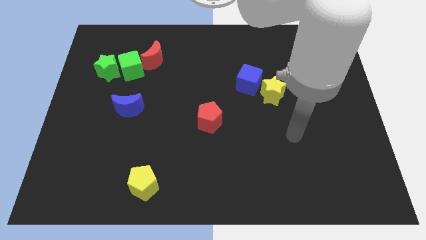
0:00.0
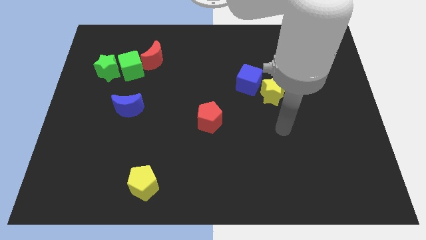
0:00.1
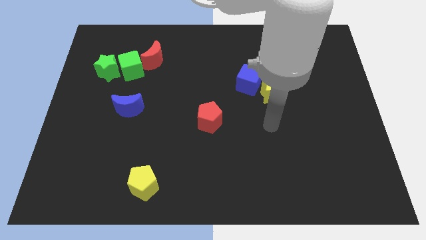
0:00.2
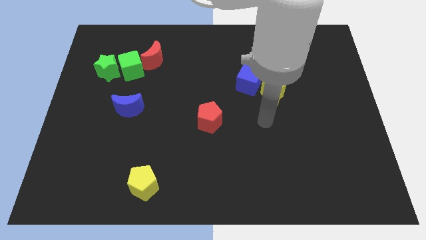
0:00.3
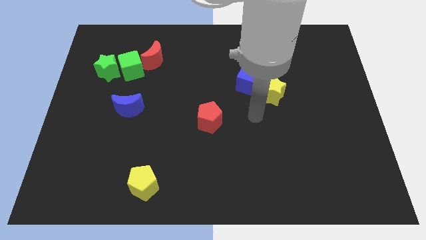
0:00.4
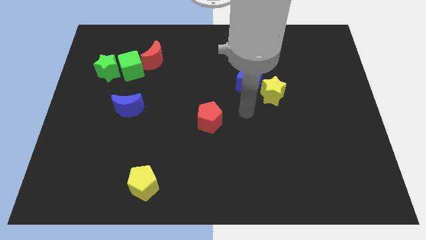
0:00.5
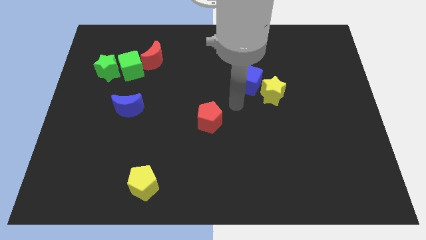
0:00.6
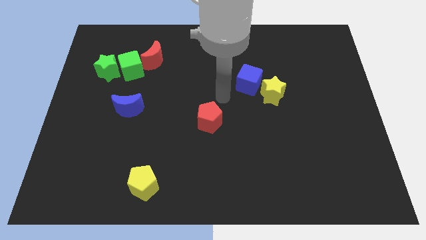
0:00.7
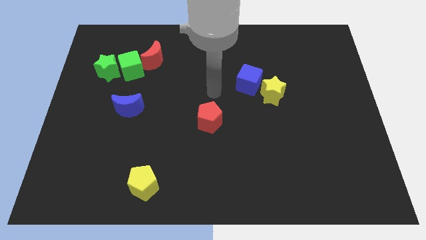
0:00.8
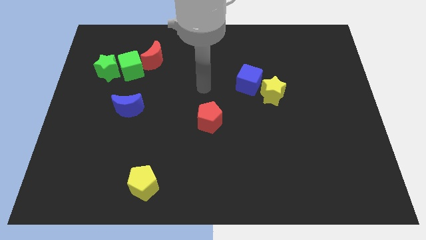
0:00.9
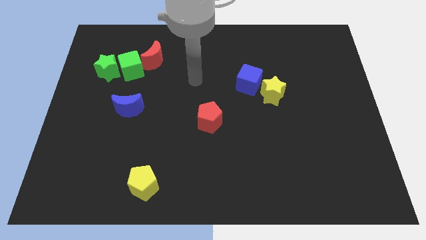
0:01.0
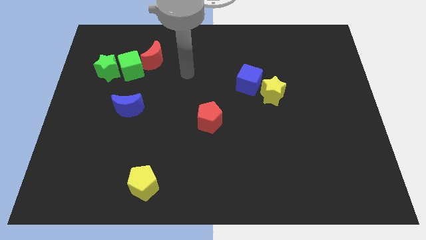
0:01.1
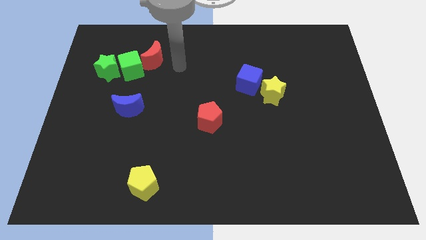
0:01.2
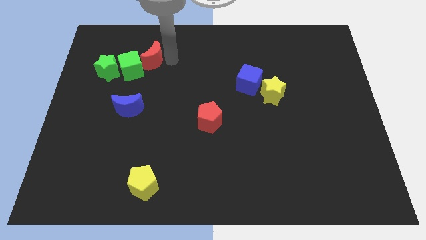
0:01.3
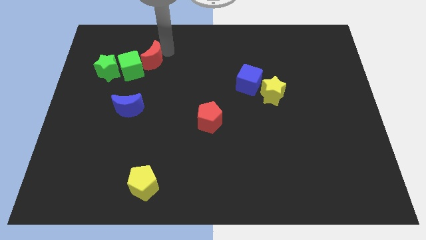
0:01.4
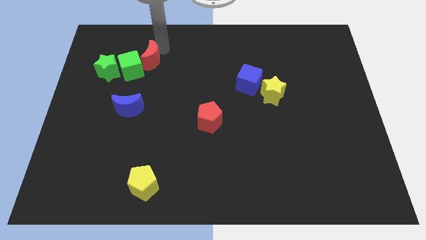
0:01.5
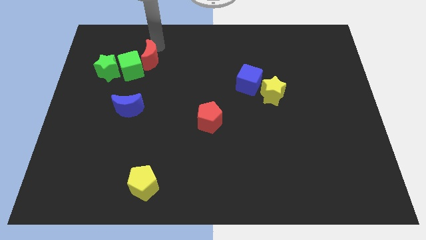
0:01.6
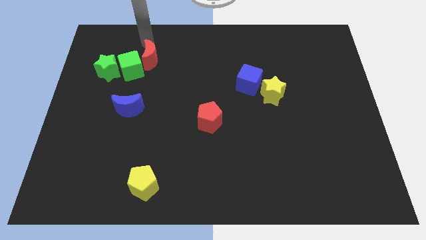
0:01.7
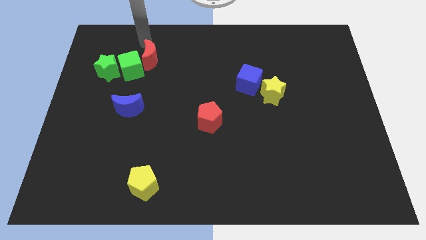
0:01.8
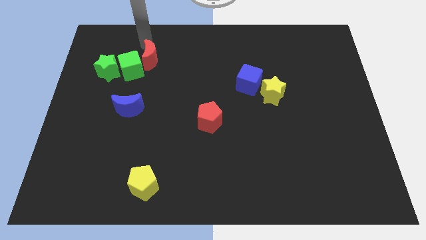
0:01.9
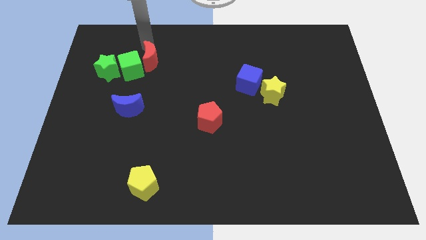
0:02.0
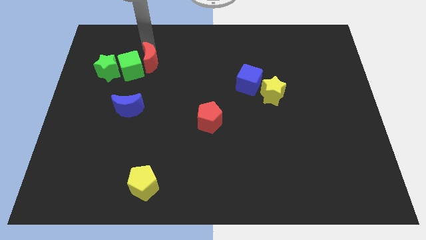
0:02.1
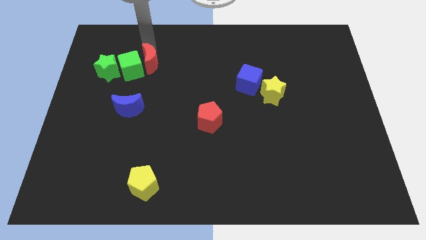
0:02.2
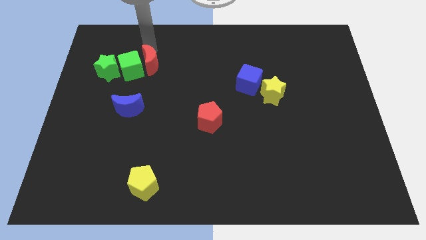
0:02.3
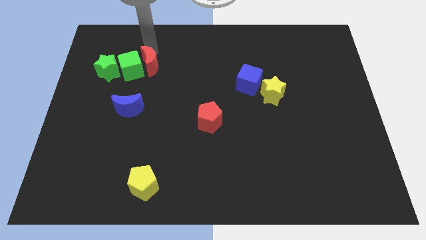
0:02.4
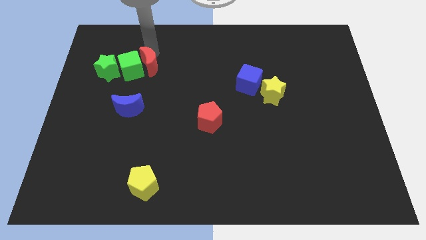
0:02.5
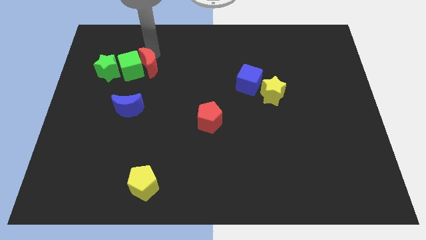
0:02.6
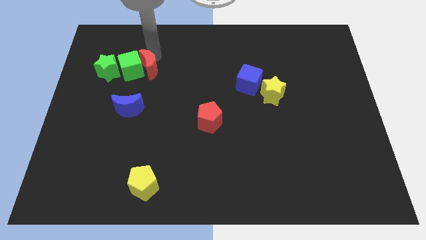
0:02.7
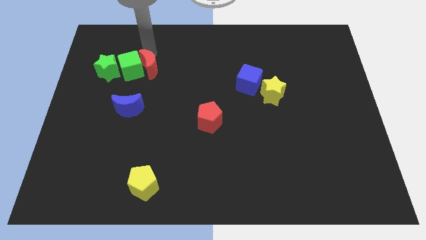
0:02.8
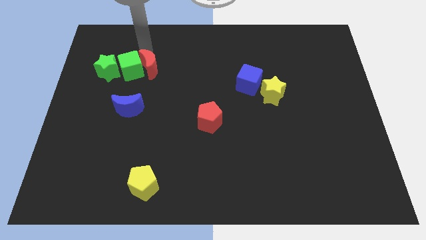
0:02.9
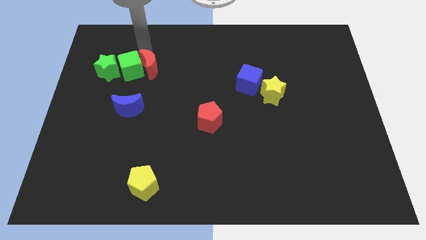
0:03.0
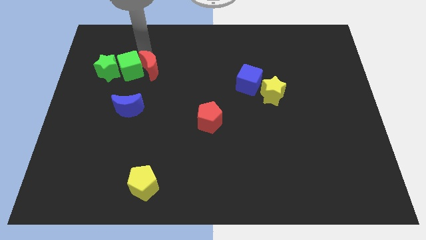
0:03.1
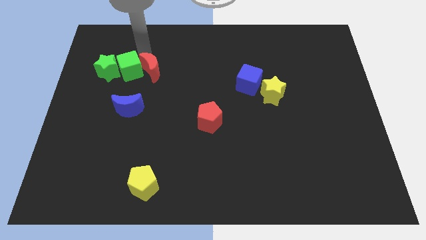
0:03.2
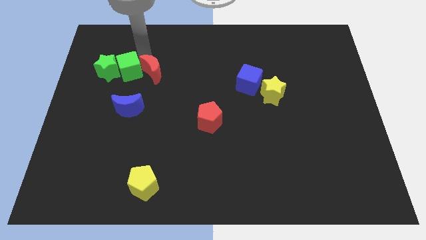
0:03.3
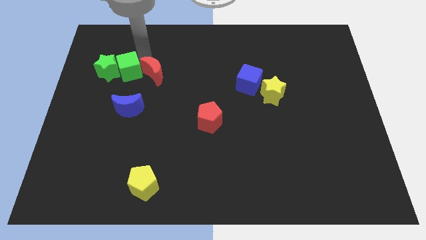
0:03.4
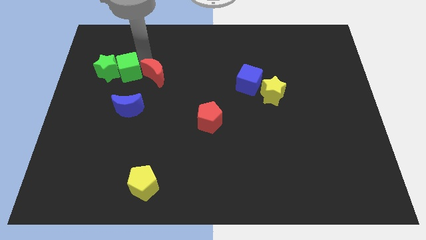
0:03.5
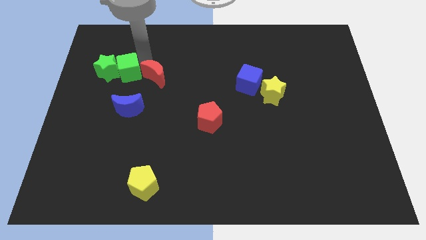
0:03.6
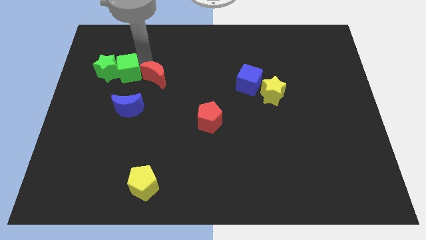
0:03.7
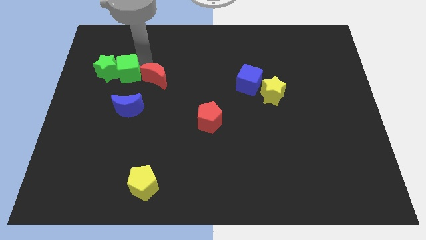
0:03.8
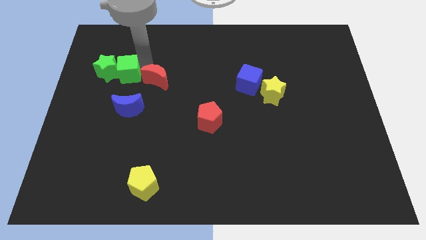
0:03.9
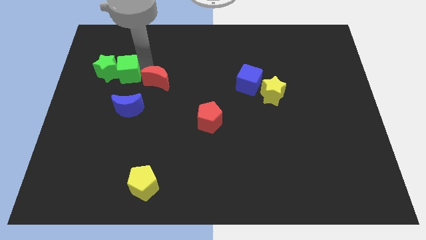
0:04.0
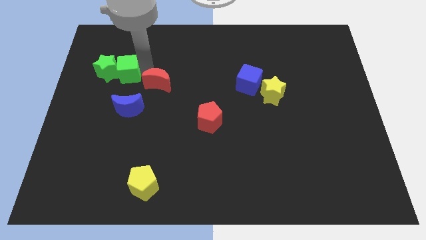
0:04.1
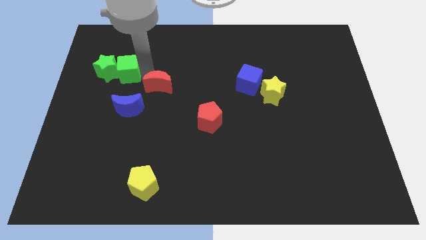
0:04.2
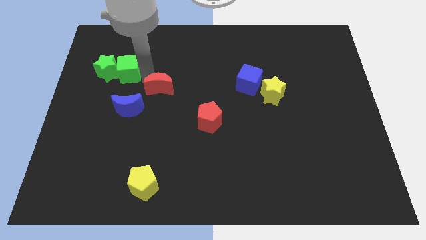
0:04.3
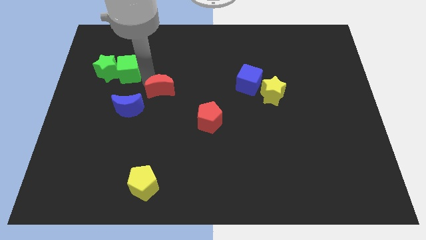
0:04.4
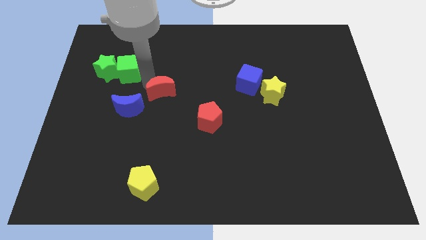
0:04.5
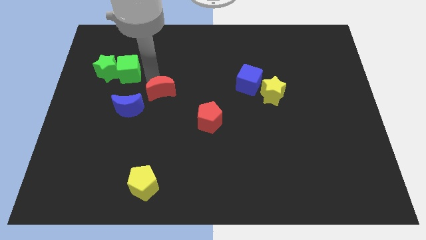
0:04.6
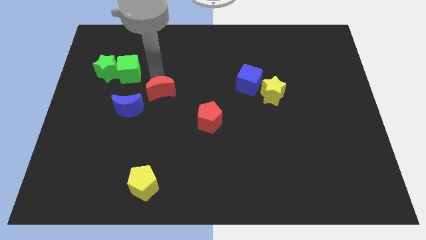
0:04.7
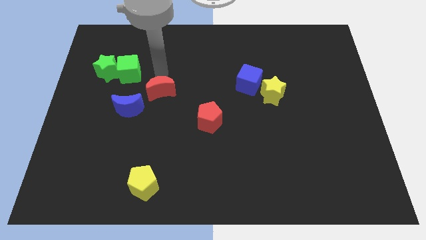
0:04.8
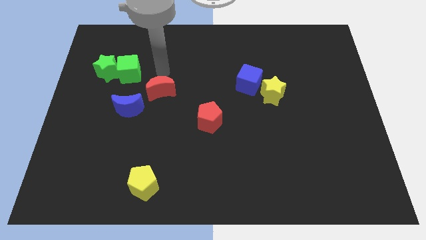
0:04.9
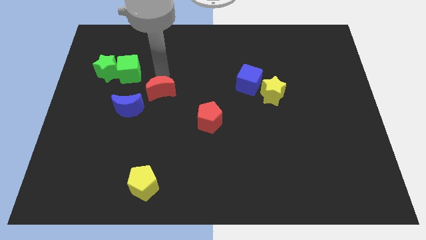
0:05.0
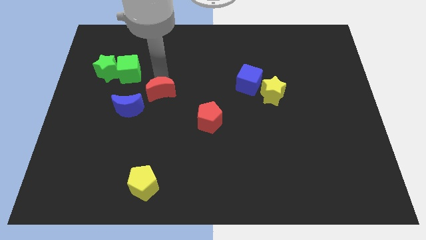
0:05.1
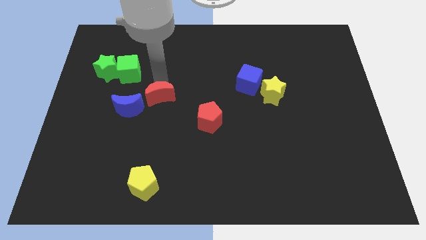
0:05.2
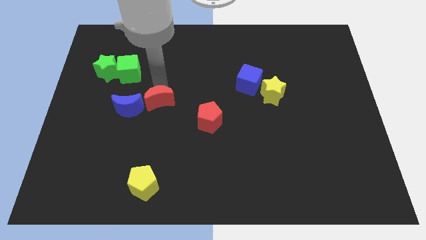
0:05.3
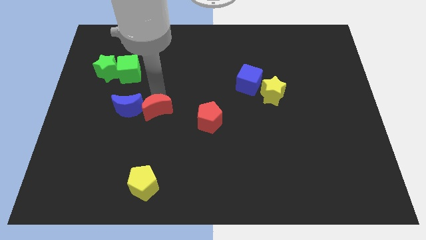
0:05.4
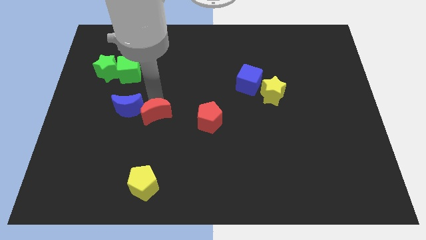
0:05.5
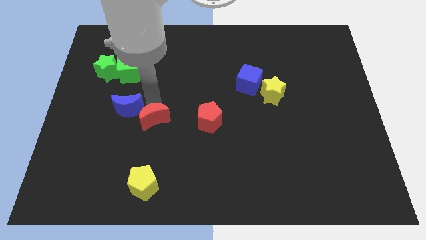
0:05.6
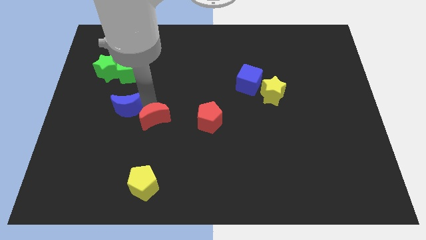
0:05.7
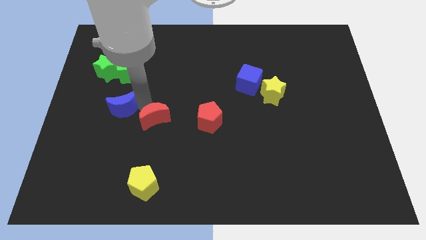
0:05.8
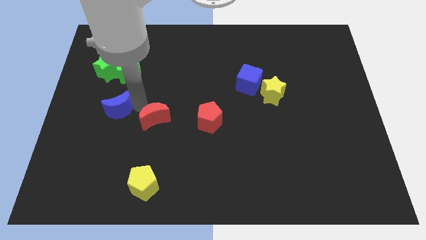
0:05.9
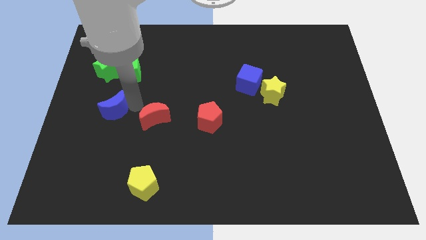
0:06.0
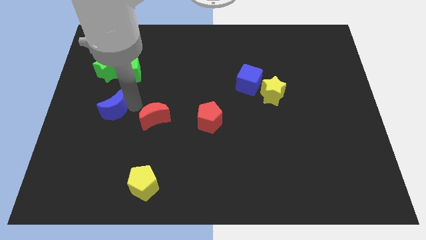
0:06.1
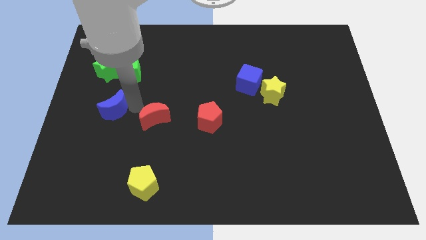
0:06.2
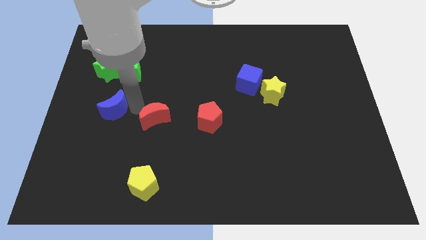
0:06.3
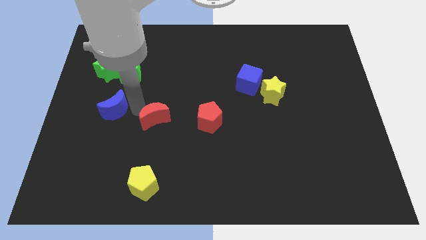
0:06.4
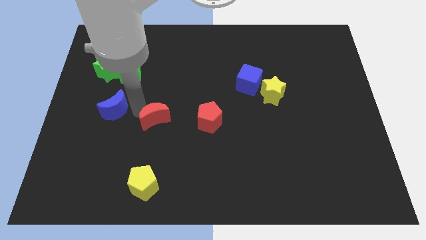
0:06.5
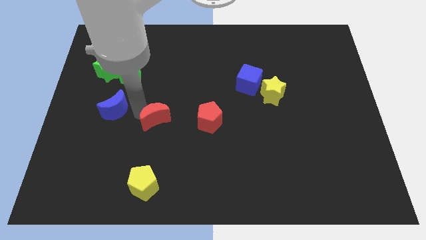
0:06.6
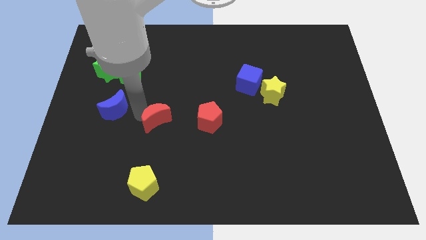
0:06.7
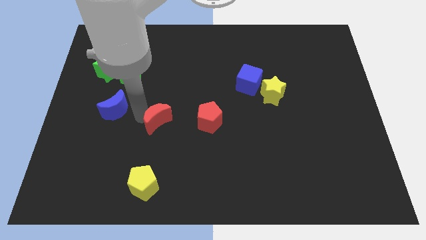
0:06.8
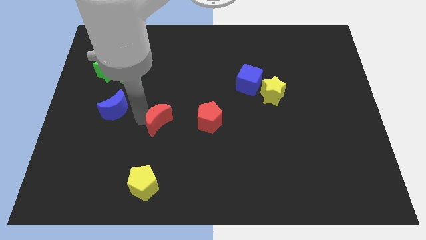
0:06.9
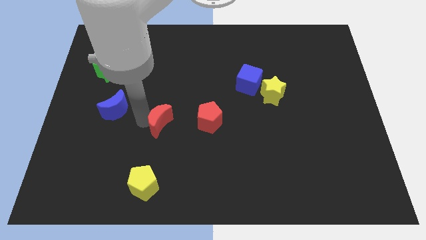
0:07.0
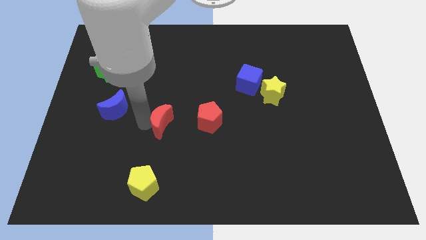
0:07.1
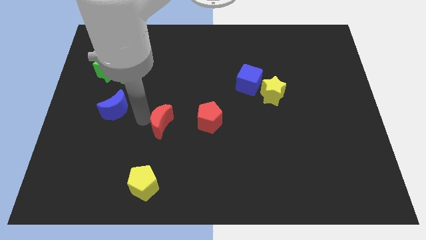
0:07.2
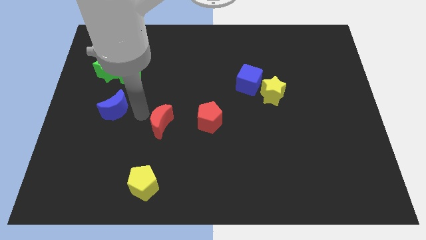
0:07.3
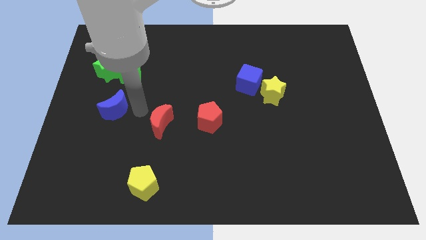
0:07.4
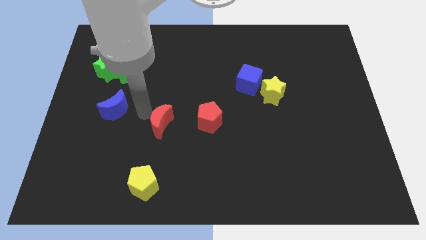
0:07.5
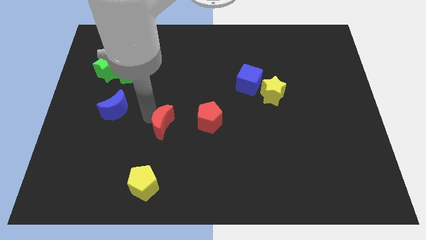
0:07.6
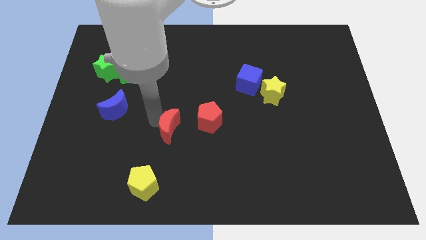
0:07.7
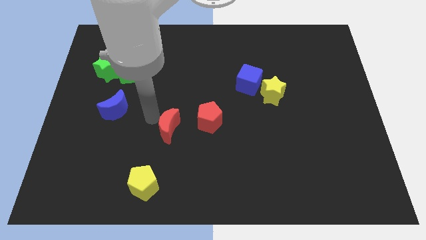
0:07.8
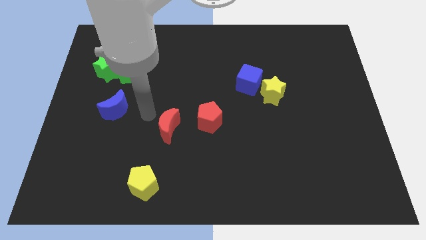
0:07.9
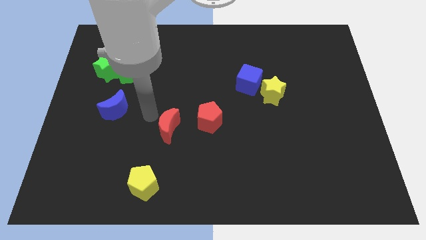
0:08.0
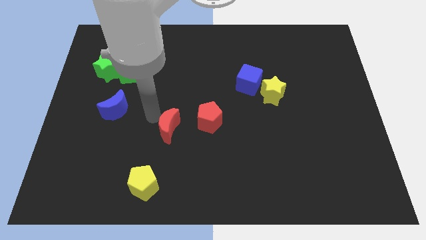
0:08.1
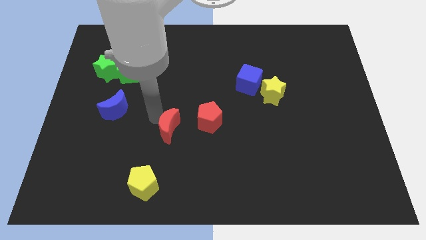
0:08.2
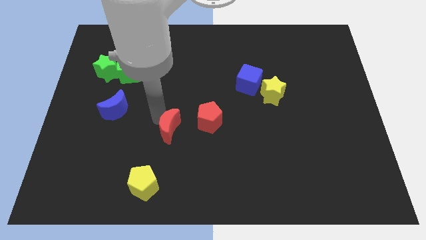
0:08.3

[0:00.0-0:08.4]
slide the red moon diagonally down and to the left of the red pentagon
